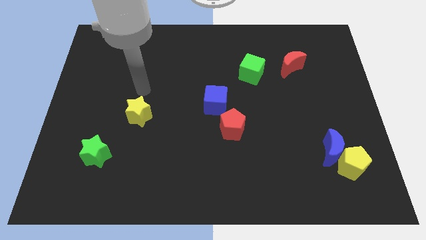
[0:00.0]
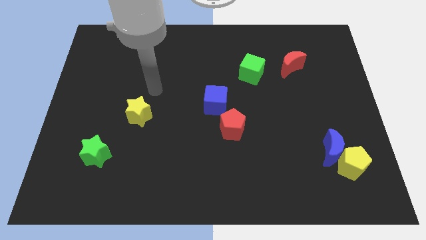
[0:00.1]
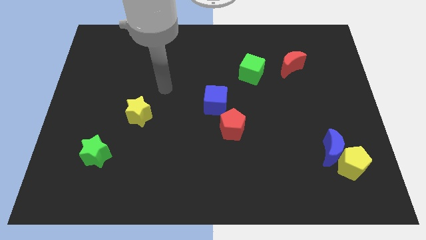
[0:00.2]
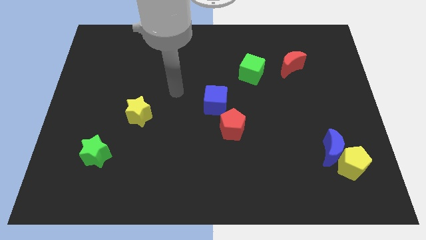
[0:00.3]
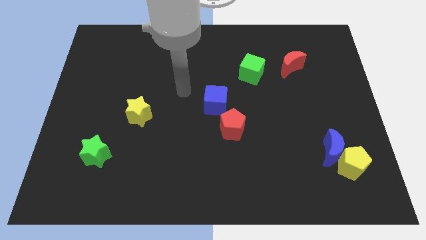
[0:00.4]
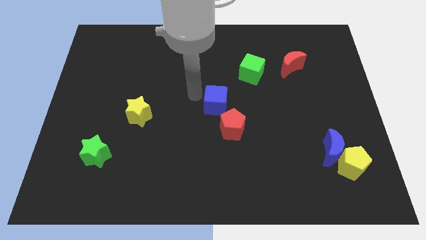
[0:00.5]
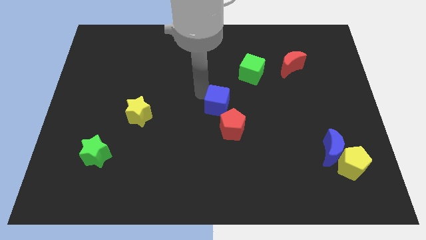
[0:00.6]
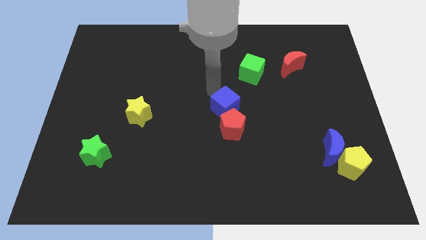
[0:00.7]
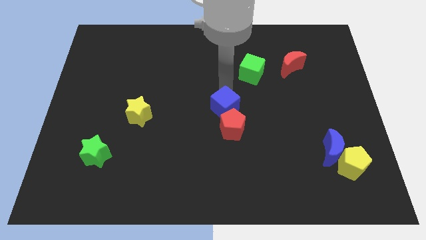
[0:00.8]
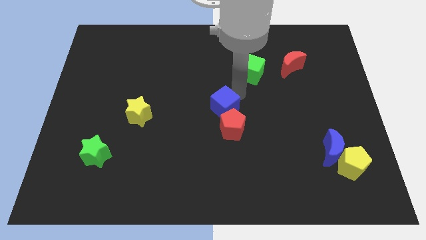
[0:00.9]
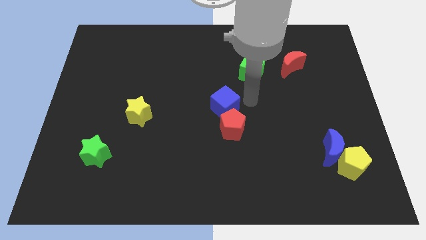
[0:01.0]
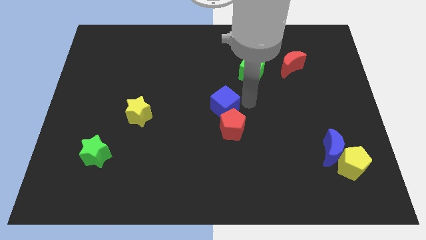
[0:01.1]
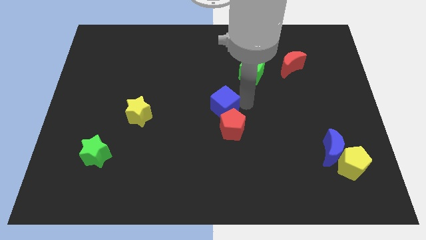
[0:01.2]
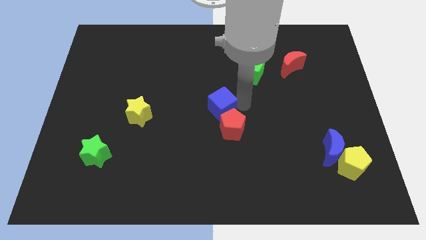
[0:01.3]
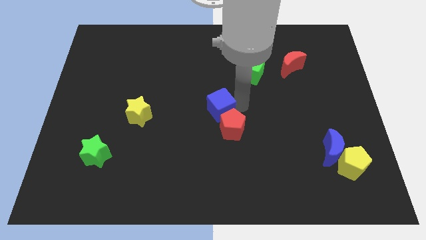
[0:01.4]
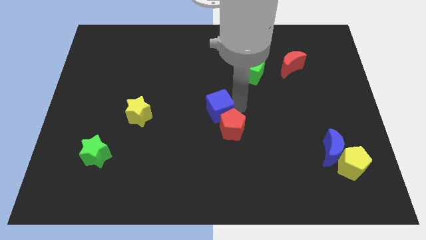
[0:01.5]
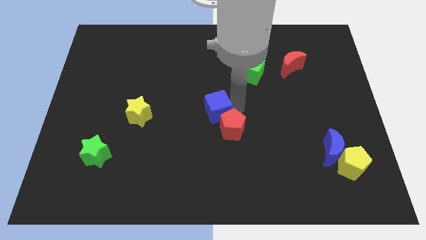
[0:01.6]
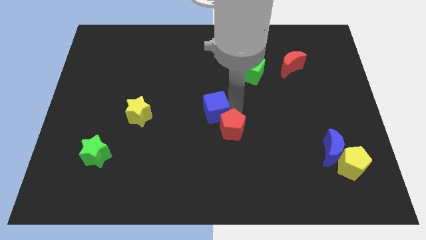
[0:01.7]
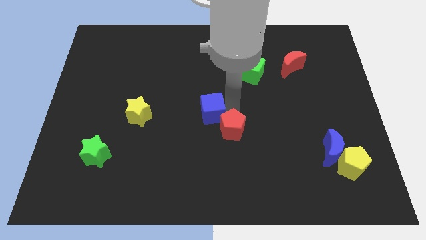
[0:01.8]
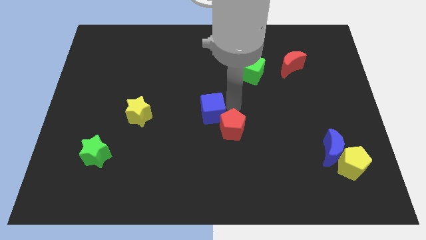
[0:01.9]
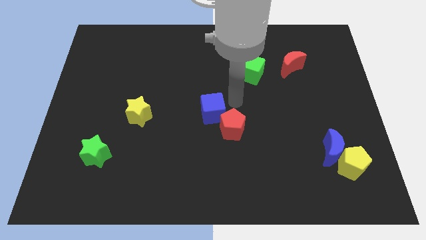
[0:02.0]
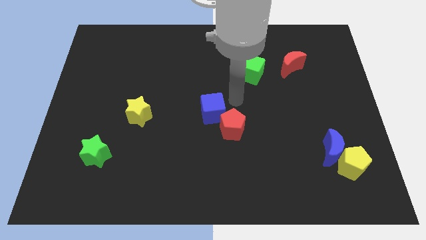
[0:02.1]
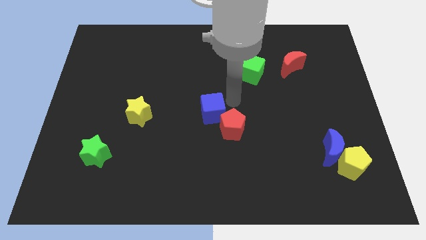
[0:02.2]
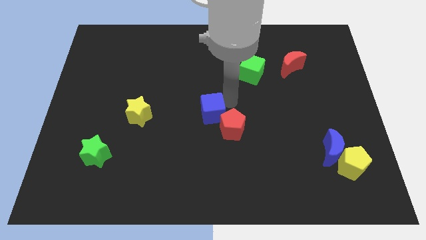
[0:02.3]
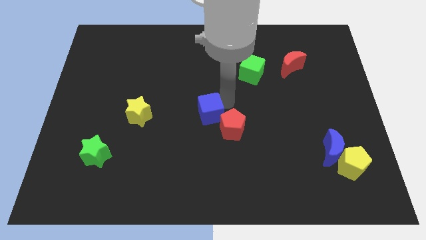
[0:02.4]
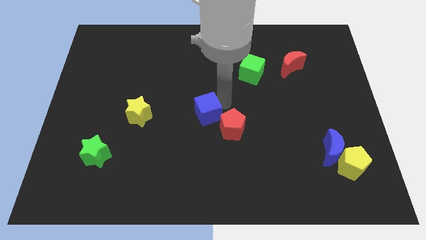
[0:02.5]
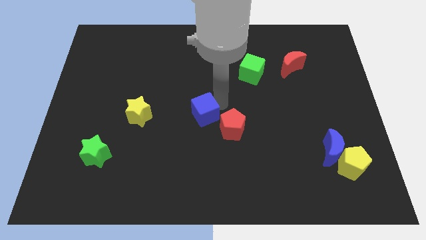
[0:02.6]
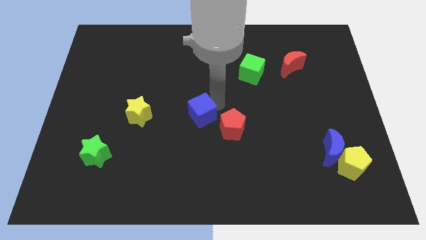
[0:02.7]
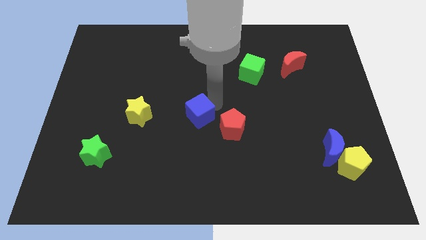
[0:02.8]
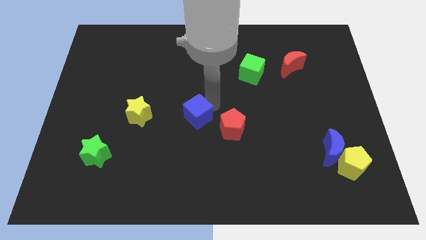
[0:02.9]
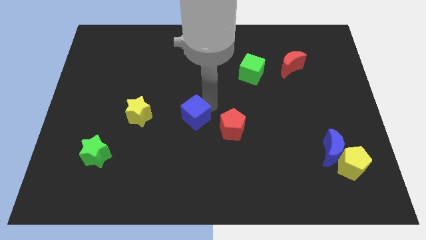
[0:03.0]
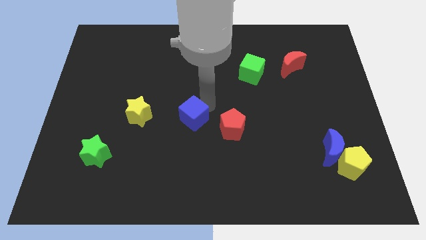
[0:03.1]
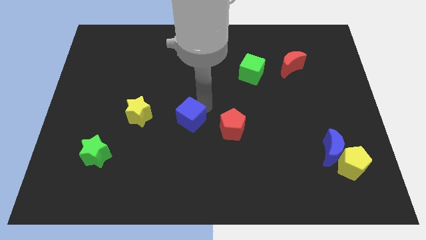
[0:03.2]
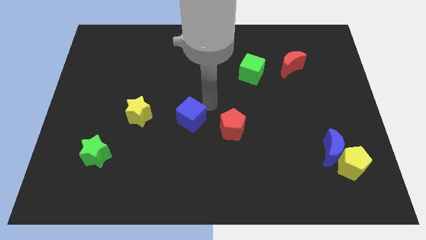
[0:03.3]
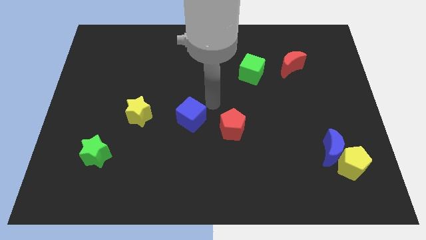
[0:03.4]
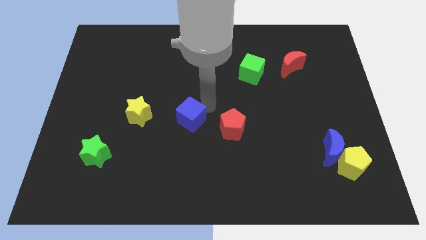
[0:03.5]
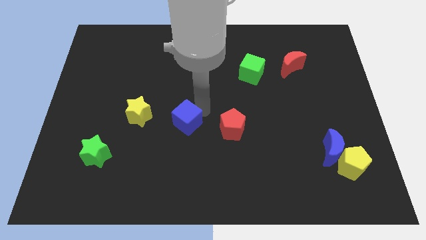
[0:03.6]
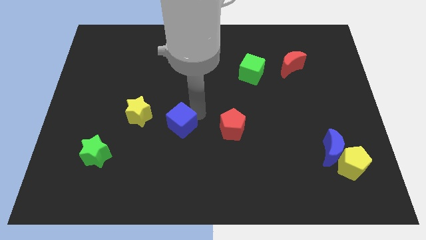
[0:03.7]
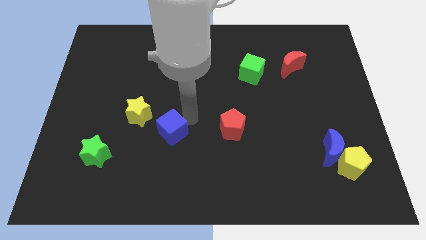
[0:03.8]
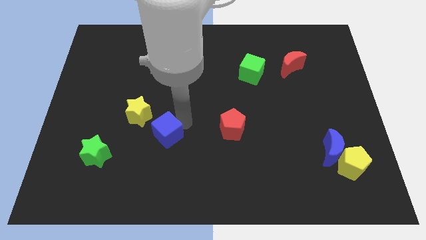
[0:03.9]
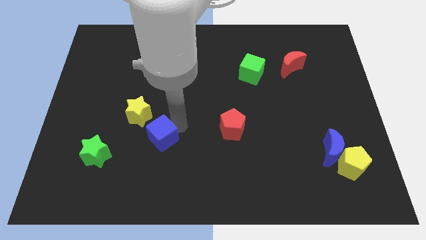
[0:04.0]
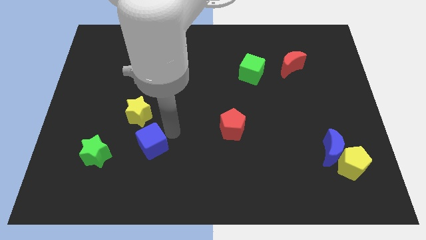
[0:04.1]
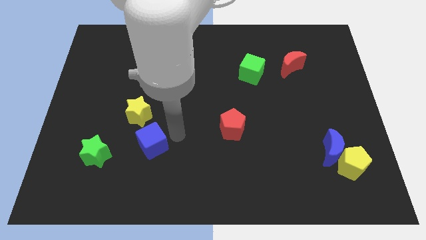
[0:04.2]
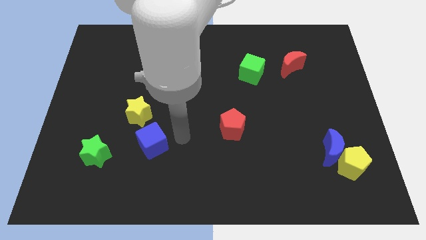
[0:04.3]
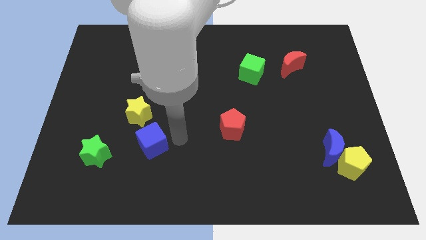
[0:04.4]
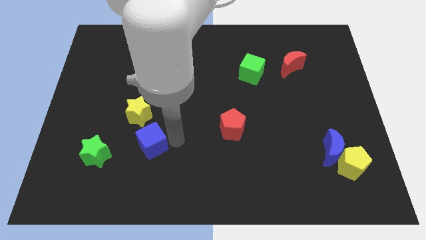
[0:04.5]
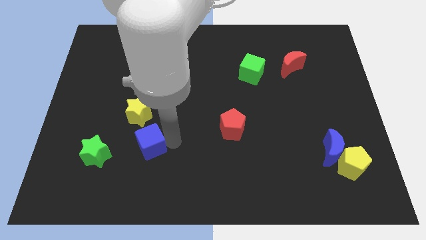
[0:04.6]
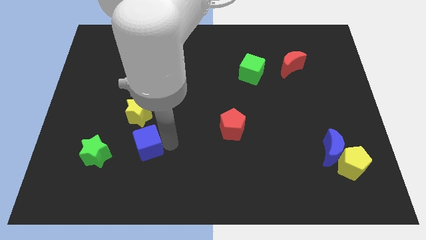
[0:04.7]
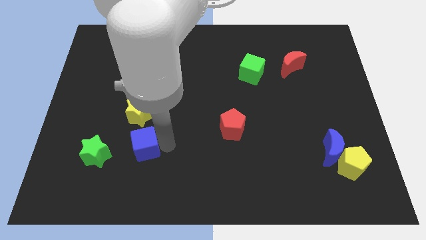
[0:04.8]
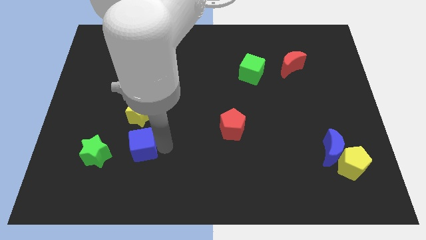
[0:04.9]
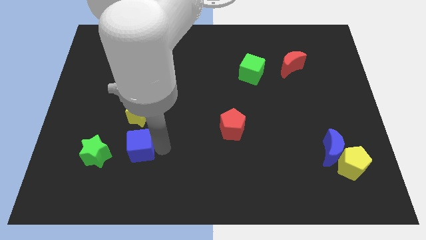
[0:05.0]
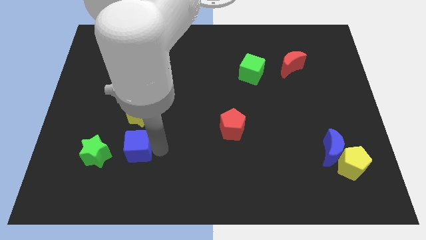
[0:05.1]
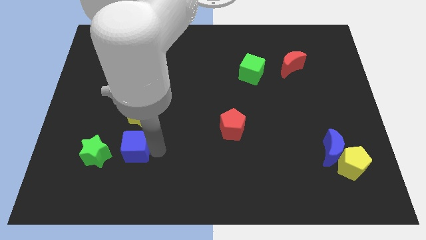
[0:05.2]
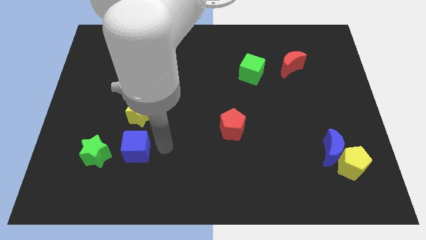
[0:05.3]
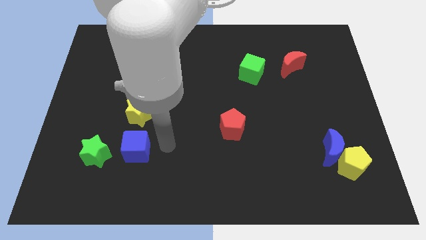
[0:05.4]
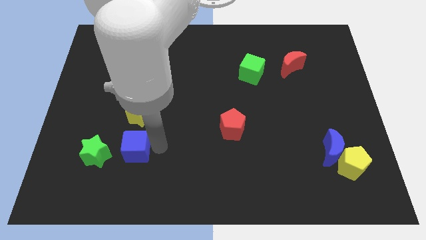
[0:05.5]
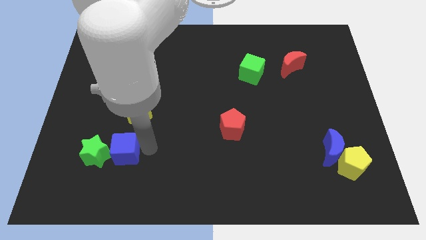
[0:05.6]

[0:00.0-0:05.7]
move the blue cube close to the green star

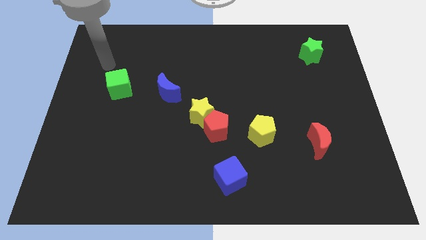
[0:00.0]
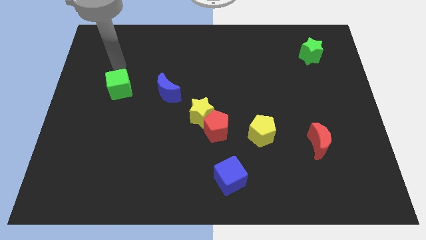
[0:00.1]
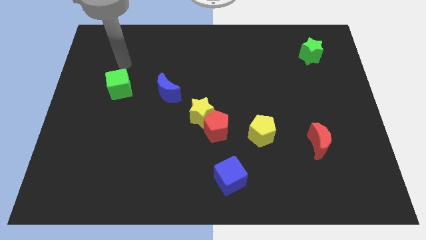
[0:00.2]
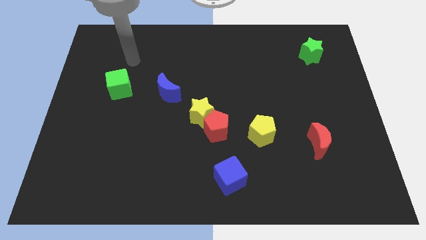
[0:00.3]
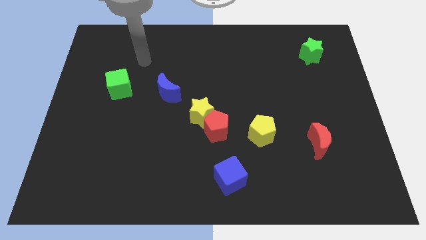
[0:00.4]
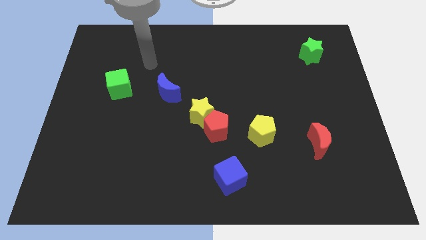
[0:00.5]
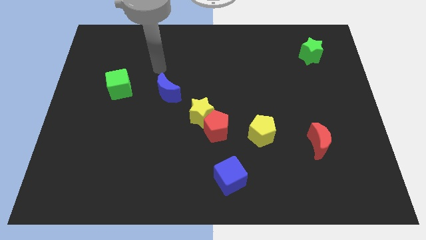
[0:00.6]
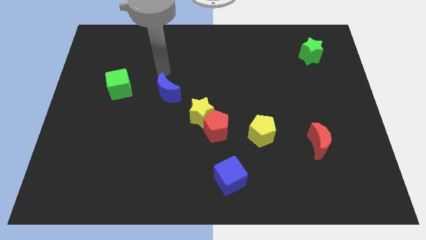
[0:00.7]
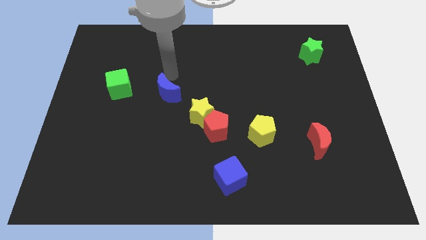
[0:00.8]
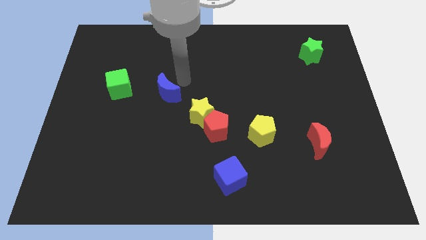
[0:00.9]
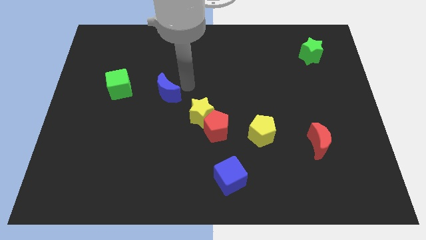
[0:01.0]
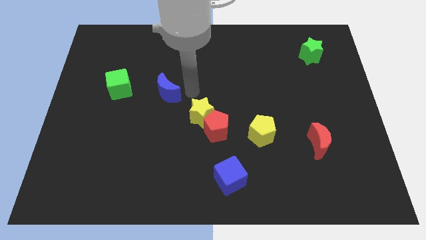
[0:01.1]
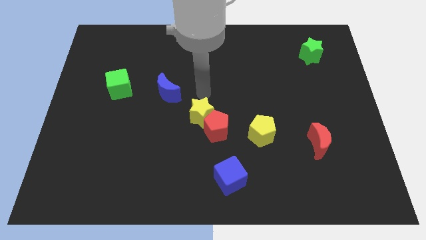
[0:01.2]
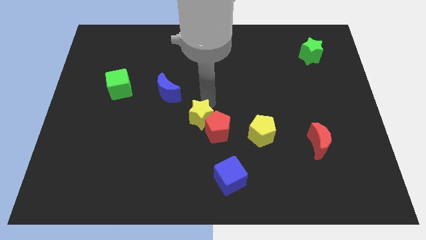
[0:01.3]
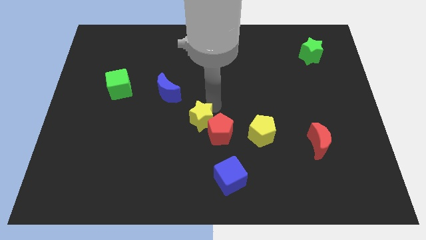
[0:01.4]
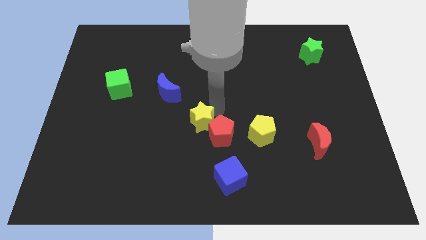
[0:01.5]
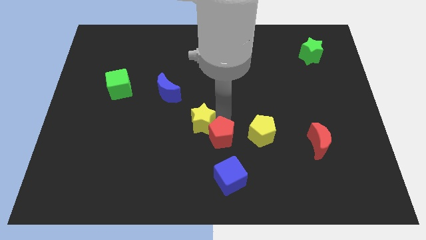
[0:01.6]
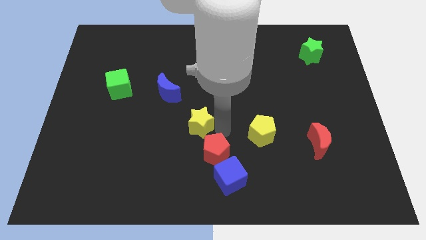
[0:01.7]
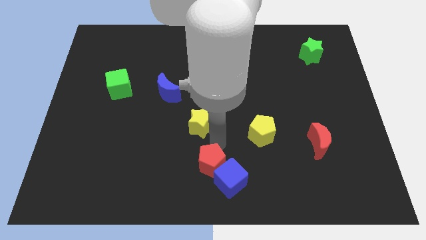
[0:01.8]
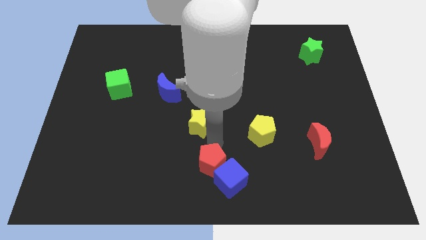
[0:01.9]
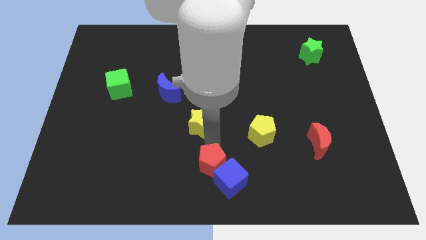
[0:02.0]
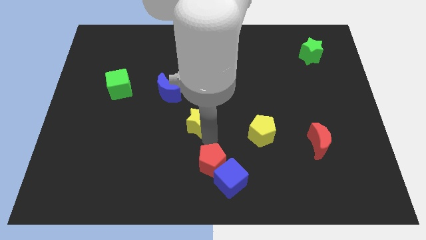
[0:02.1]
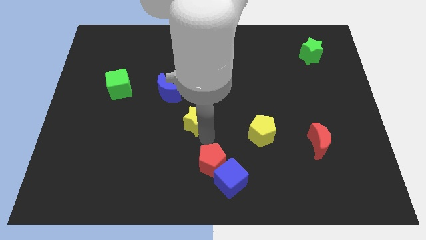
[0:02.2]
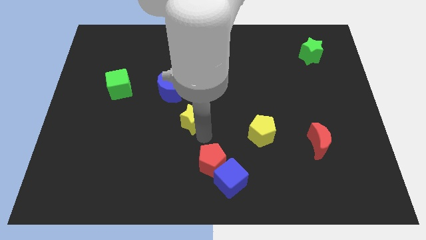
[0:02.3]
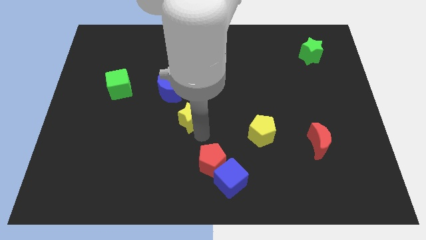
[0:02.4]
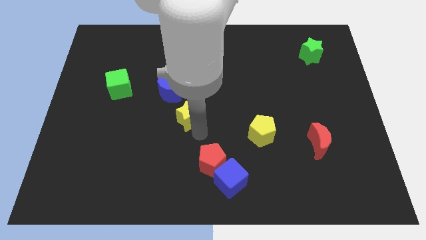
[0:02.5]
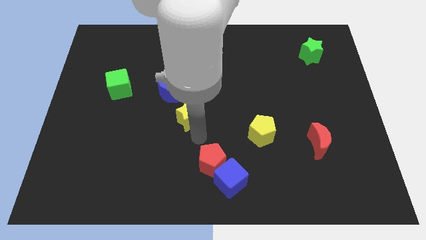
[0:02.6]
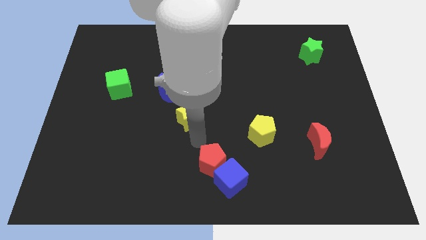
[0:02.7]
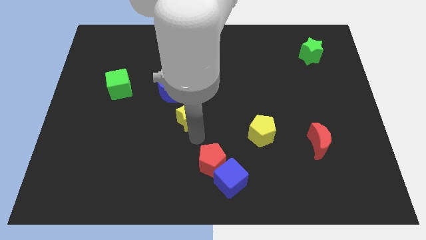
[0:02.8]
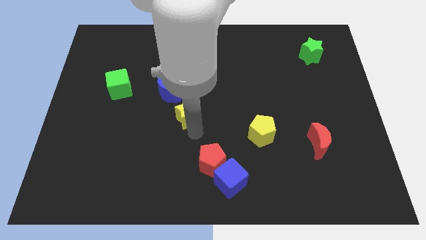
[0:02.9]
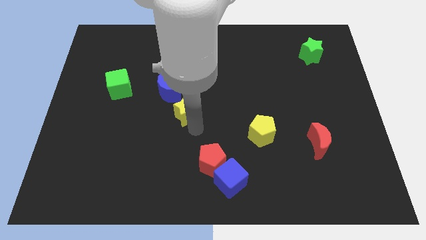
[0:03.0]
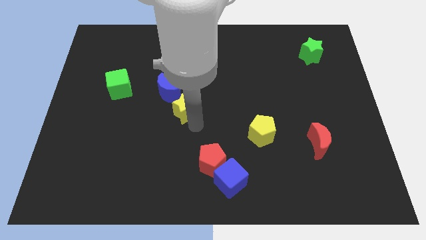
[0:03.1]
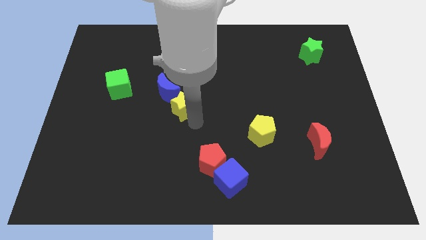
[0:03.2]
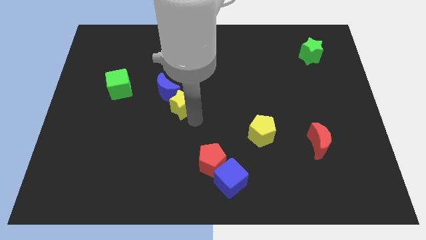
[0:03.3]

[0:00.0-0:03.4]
move the yellow star to the blue moon
